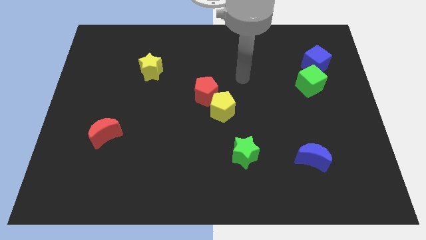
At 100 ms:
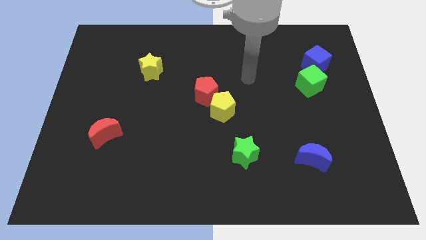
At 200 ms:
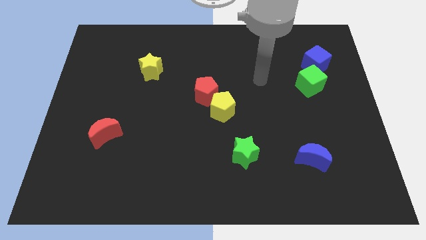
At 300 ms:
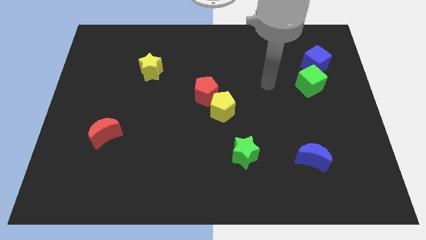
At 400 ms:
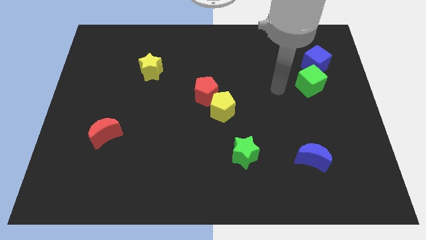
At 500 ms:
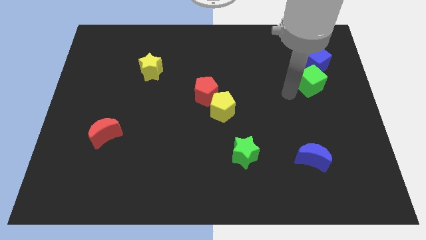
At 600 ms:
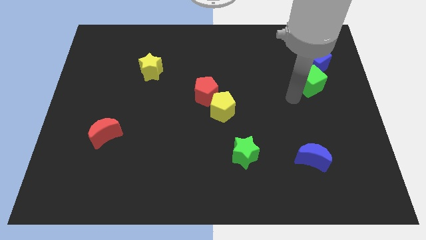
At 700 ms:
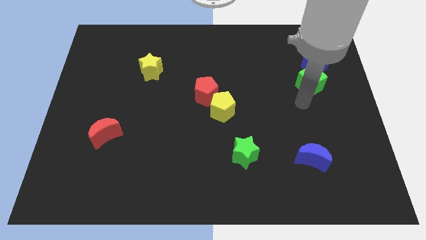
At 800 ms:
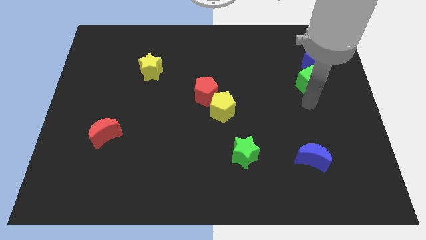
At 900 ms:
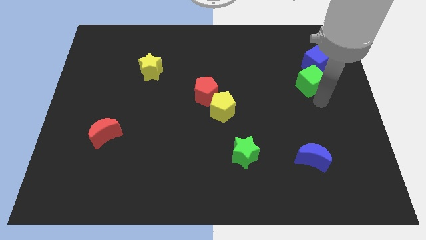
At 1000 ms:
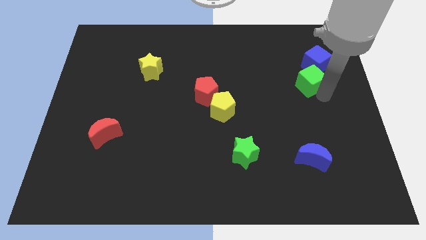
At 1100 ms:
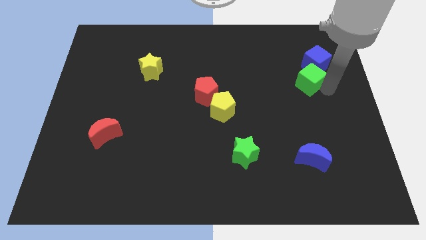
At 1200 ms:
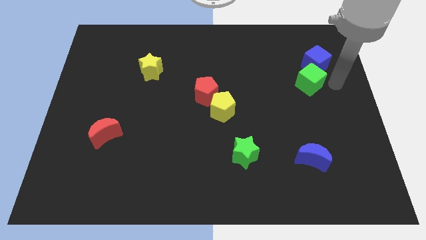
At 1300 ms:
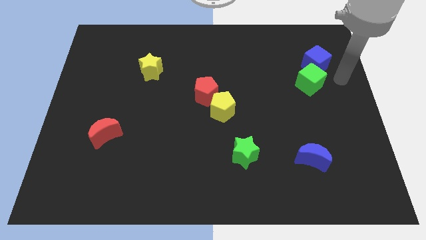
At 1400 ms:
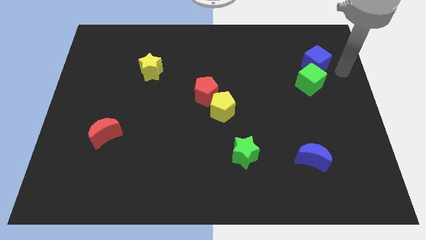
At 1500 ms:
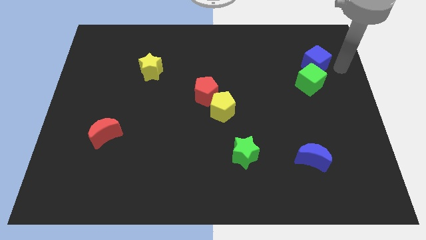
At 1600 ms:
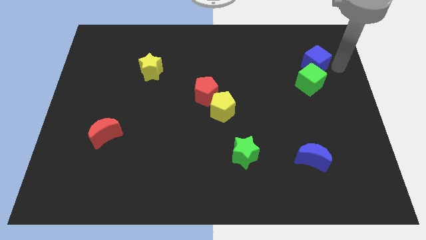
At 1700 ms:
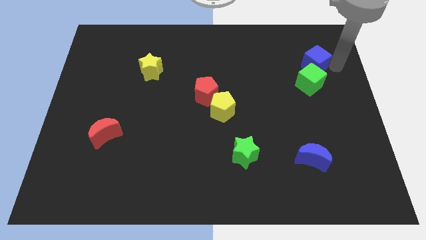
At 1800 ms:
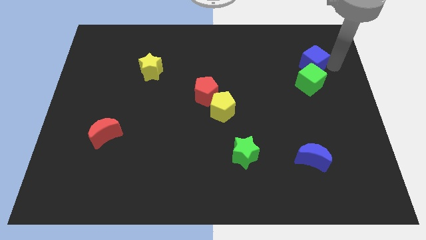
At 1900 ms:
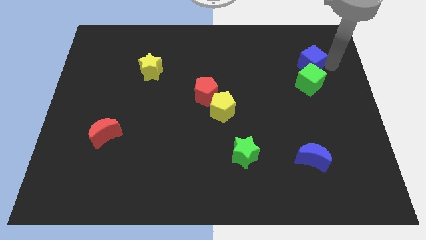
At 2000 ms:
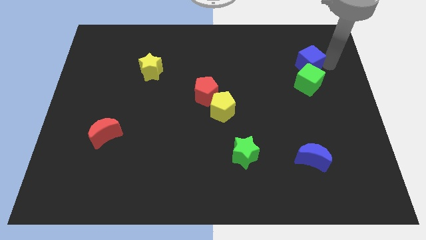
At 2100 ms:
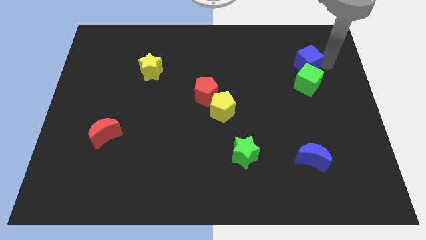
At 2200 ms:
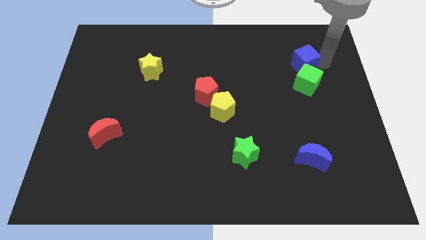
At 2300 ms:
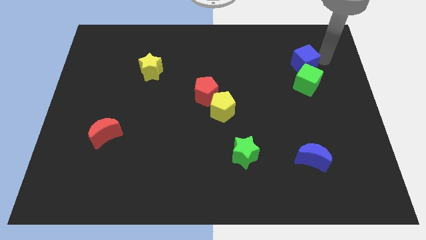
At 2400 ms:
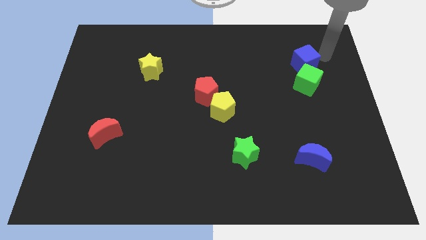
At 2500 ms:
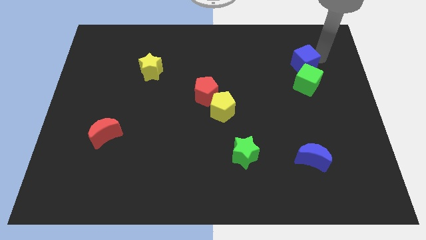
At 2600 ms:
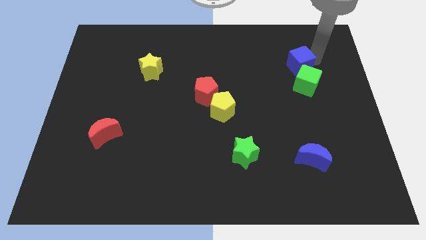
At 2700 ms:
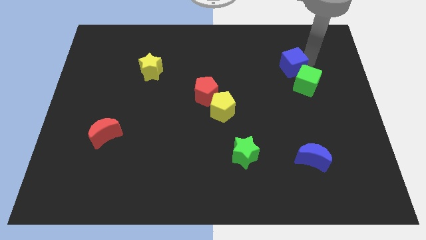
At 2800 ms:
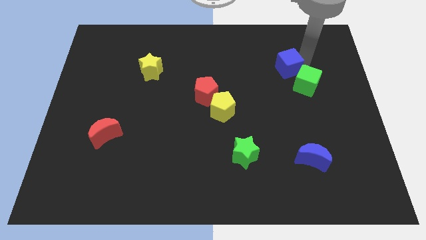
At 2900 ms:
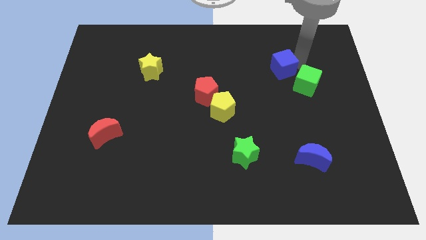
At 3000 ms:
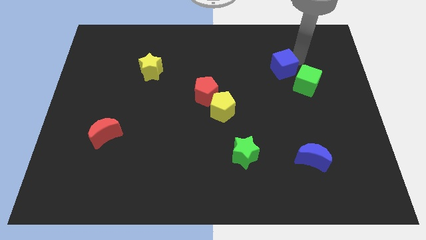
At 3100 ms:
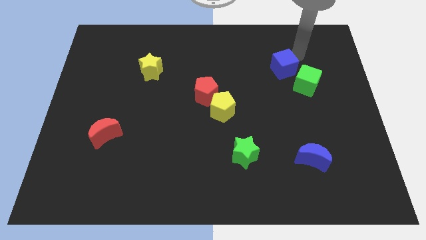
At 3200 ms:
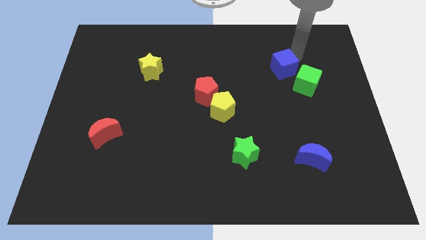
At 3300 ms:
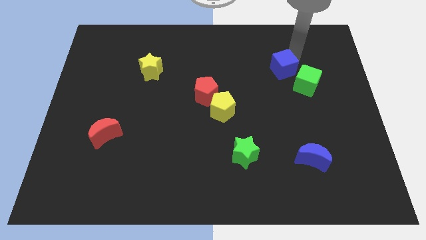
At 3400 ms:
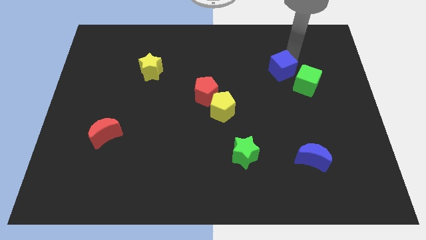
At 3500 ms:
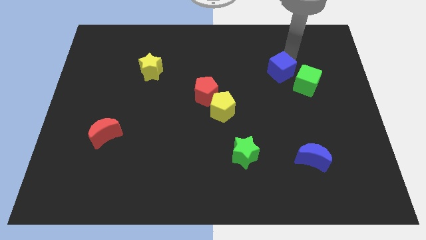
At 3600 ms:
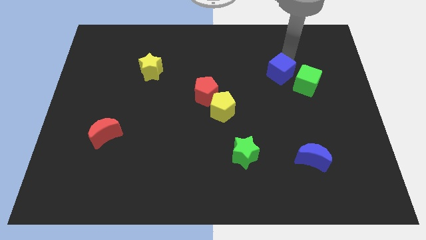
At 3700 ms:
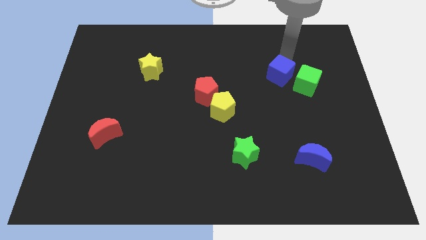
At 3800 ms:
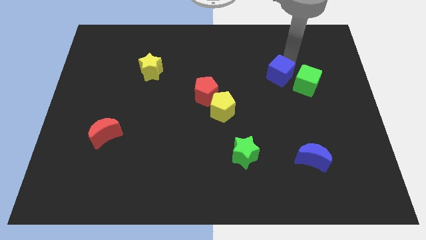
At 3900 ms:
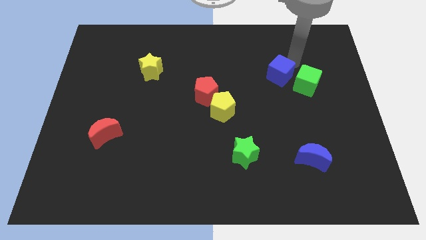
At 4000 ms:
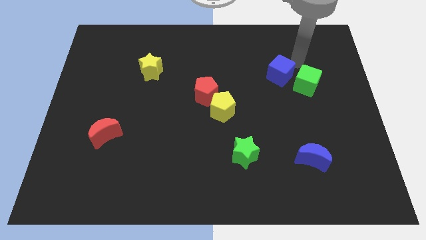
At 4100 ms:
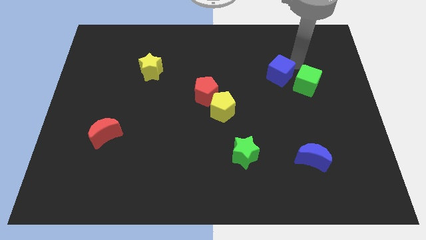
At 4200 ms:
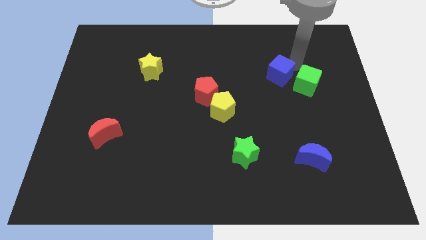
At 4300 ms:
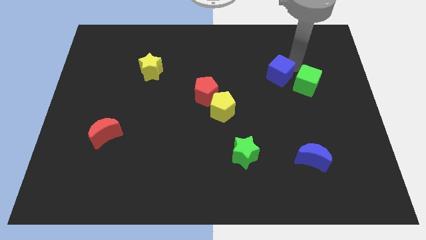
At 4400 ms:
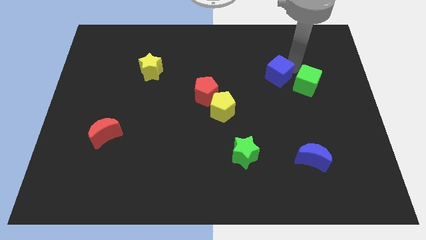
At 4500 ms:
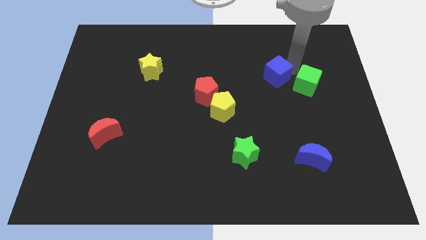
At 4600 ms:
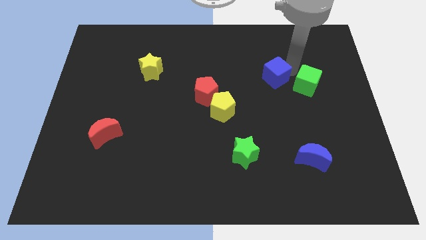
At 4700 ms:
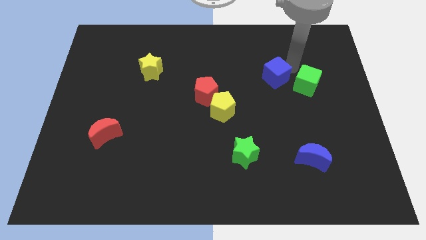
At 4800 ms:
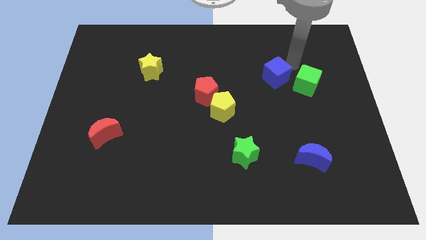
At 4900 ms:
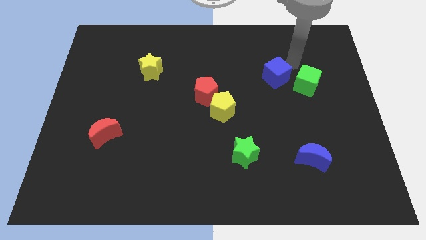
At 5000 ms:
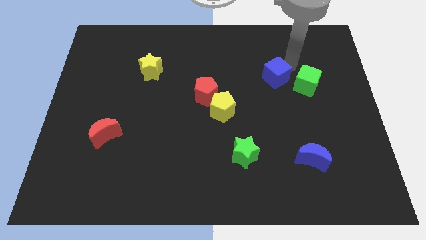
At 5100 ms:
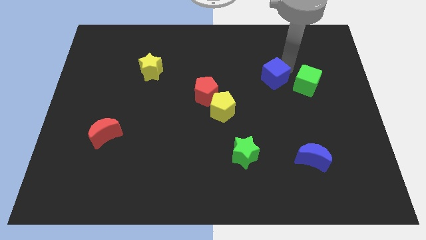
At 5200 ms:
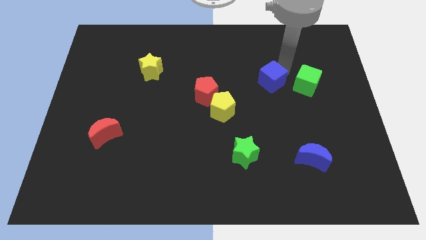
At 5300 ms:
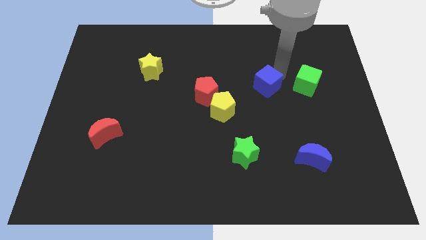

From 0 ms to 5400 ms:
move the blue cube to the right of the red pentagon

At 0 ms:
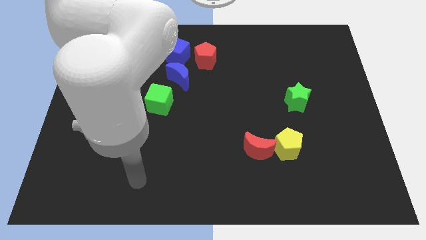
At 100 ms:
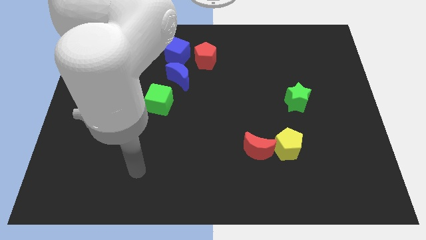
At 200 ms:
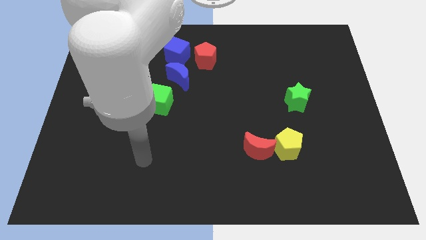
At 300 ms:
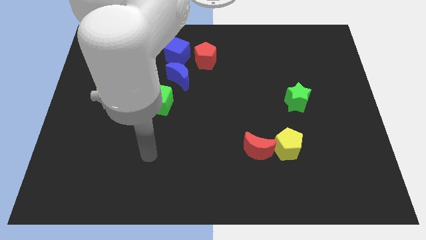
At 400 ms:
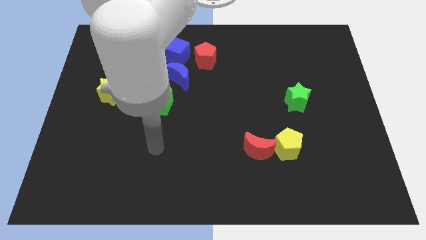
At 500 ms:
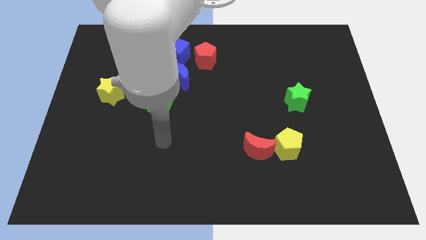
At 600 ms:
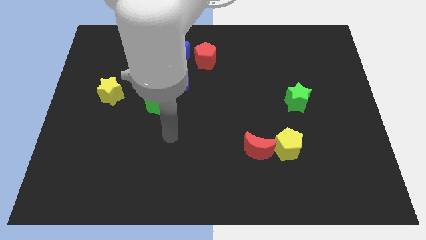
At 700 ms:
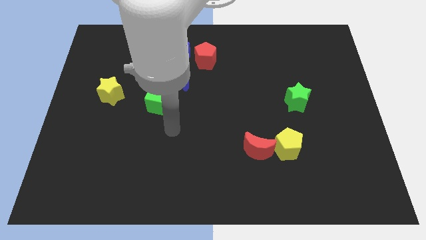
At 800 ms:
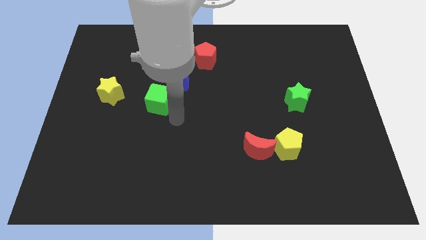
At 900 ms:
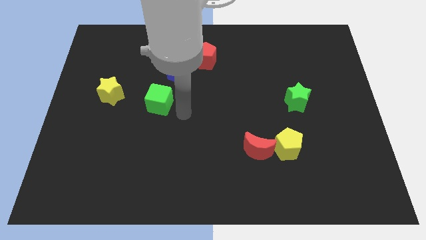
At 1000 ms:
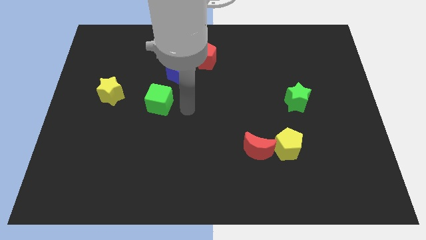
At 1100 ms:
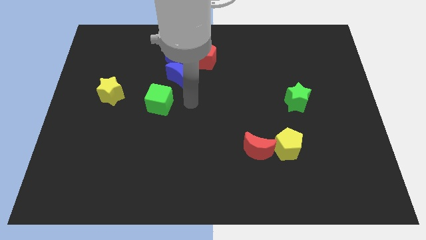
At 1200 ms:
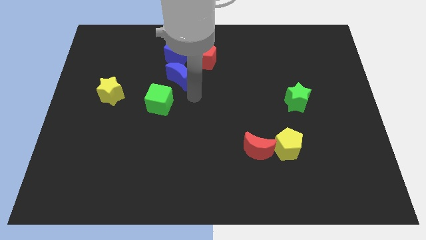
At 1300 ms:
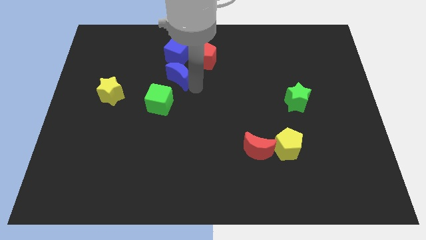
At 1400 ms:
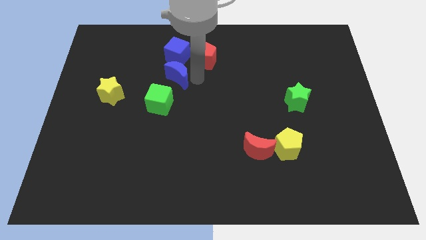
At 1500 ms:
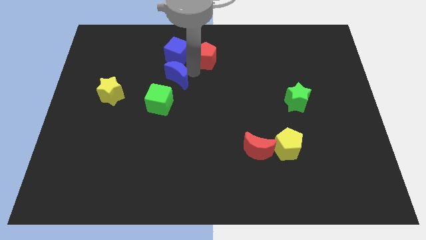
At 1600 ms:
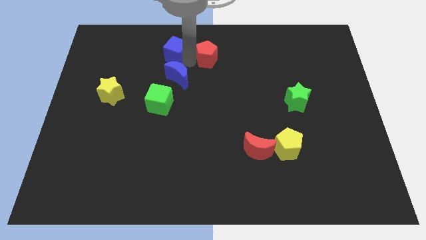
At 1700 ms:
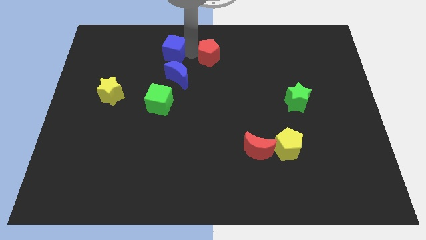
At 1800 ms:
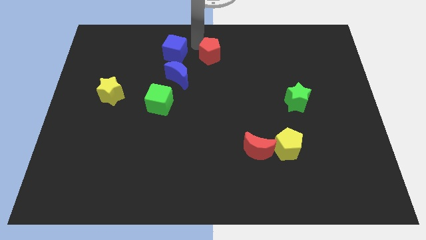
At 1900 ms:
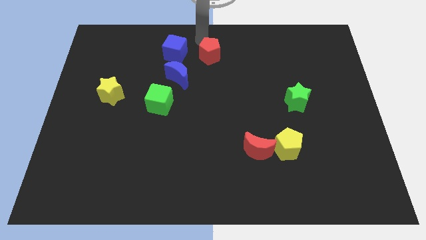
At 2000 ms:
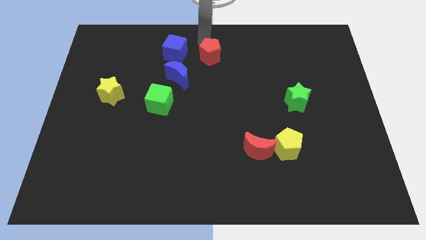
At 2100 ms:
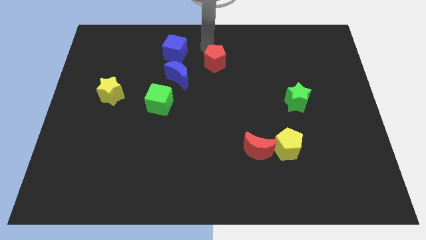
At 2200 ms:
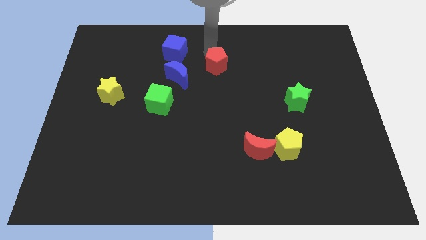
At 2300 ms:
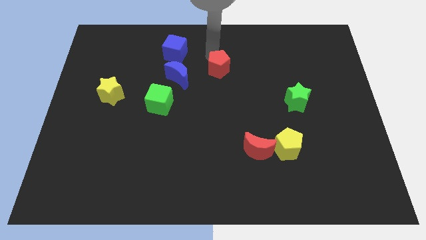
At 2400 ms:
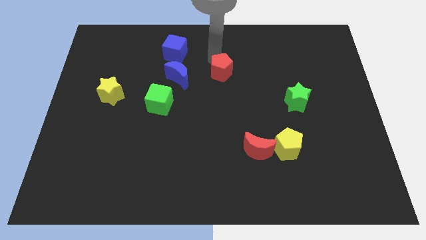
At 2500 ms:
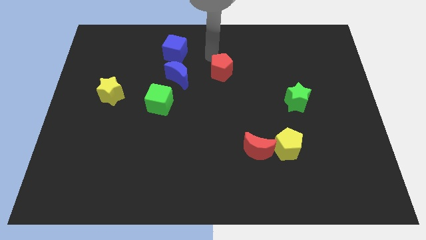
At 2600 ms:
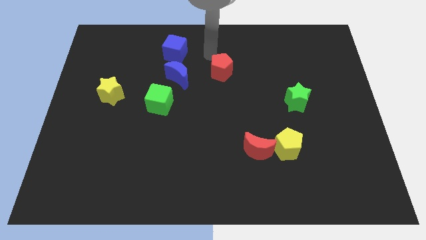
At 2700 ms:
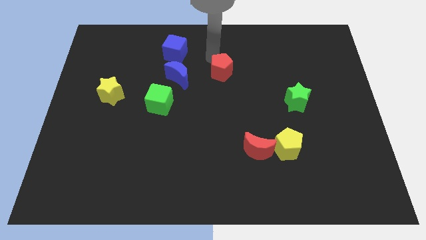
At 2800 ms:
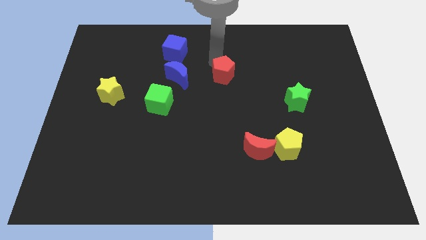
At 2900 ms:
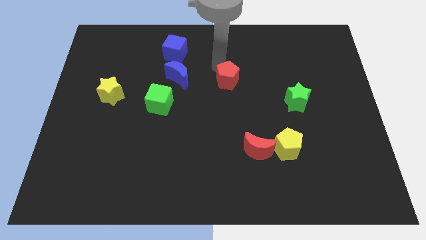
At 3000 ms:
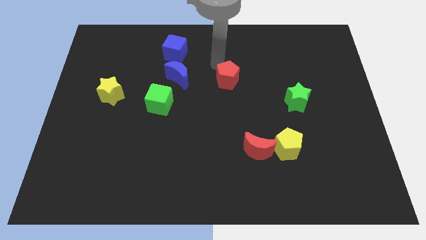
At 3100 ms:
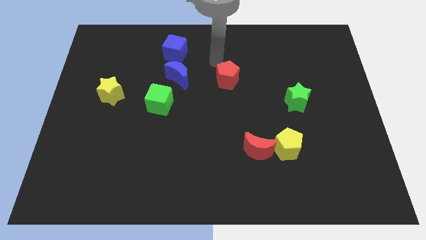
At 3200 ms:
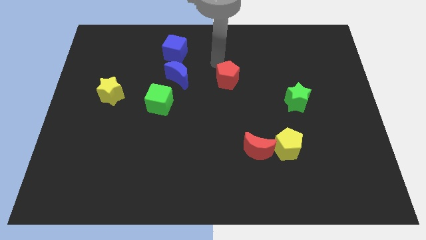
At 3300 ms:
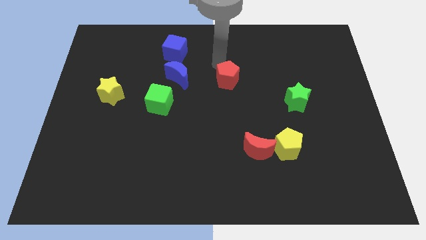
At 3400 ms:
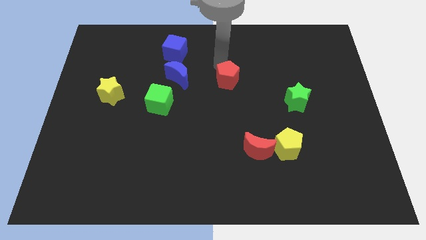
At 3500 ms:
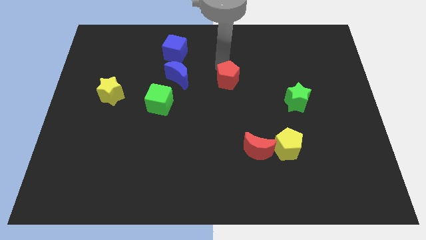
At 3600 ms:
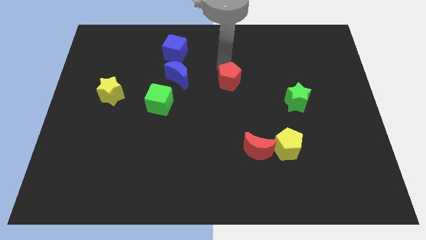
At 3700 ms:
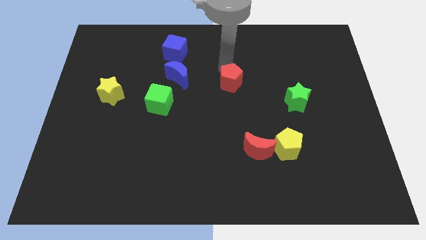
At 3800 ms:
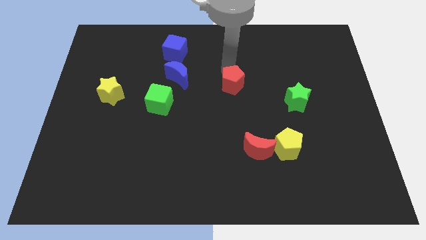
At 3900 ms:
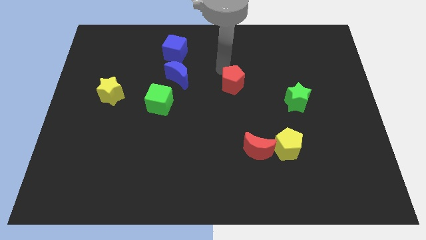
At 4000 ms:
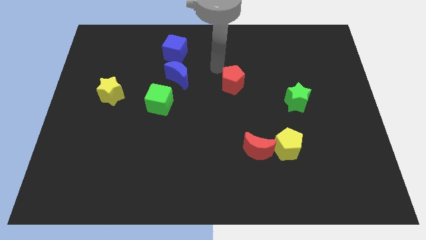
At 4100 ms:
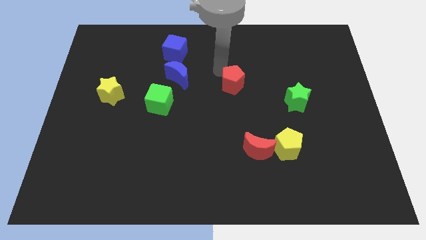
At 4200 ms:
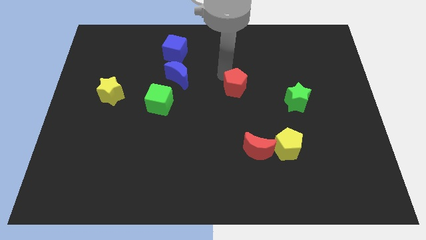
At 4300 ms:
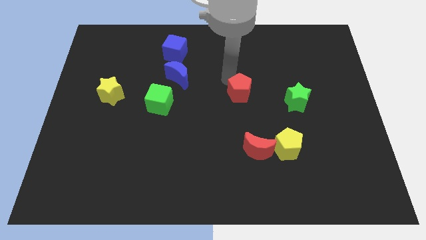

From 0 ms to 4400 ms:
slide the red pentagon to the left side of the green star
